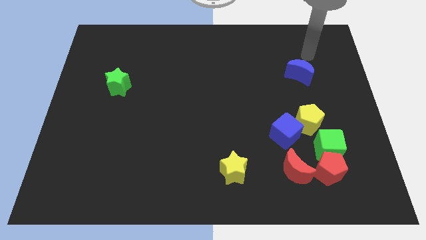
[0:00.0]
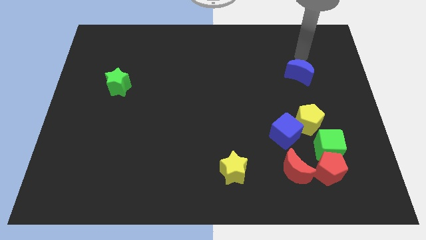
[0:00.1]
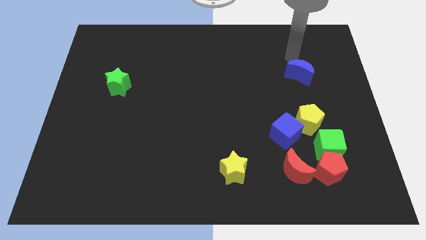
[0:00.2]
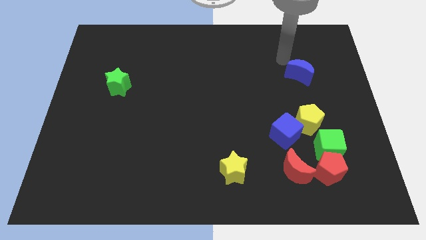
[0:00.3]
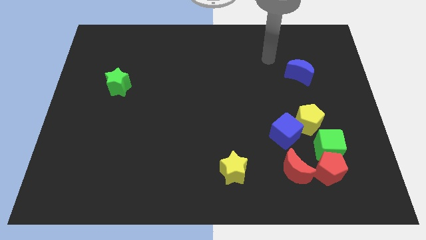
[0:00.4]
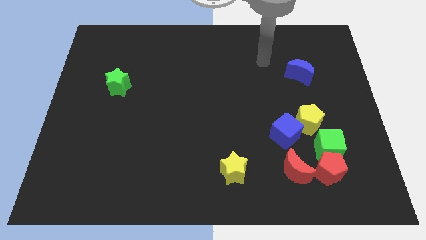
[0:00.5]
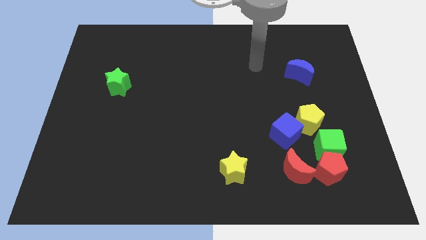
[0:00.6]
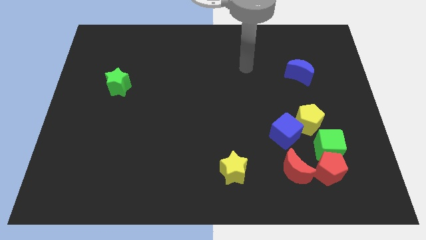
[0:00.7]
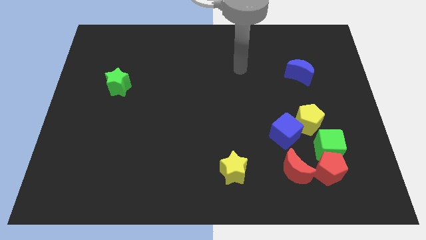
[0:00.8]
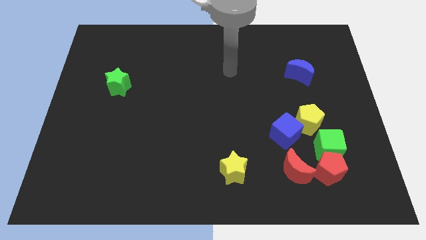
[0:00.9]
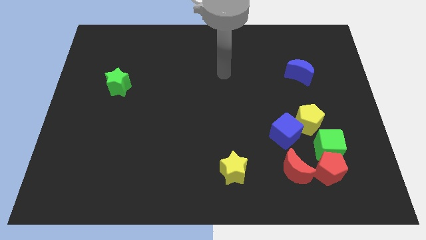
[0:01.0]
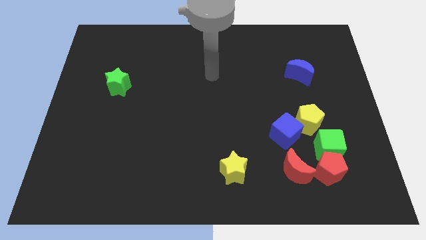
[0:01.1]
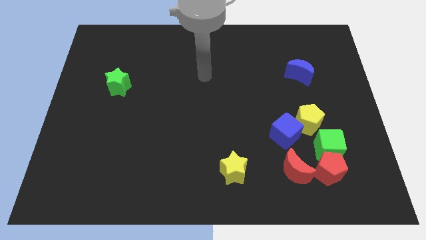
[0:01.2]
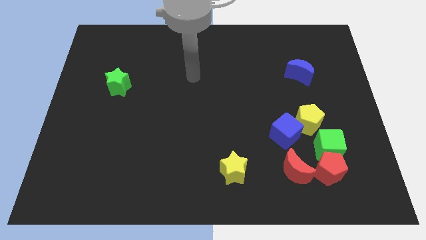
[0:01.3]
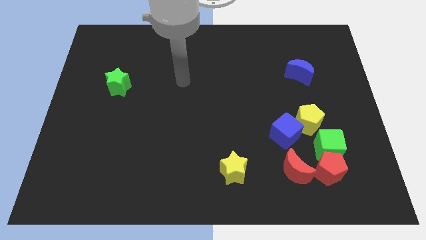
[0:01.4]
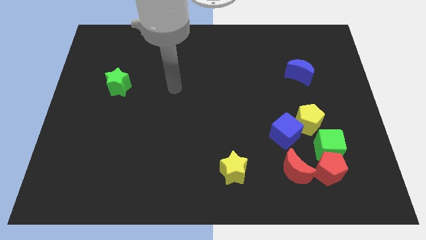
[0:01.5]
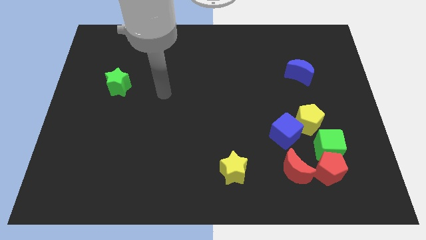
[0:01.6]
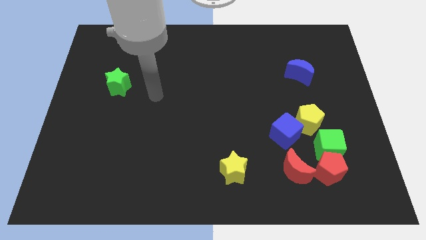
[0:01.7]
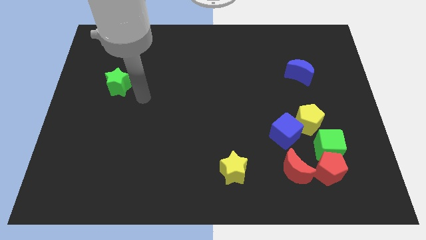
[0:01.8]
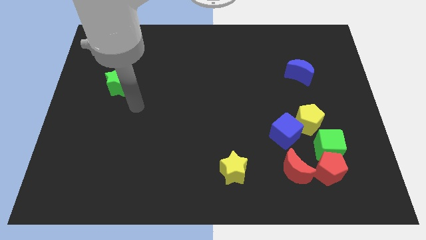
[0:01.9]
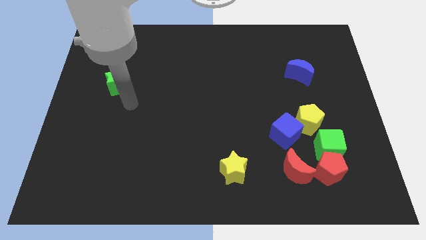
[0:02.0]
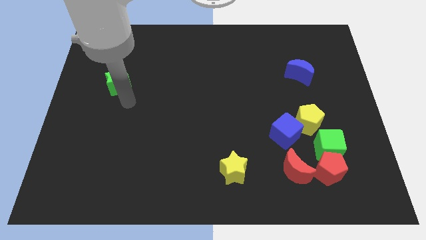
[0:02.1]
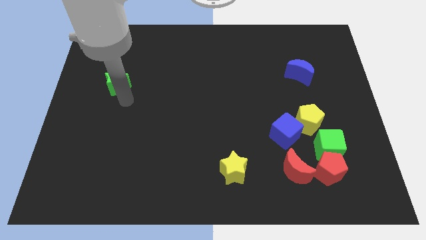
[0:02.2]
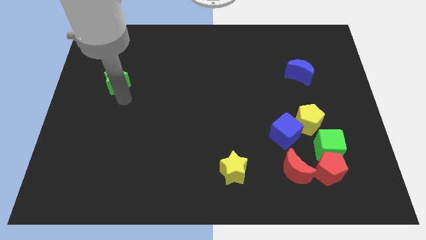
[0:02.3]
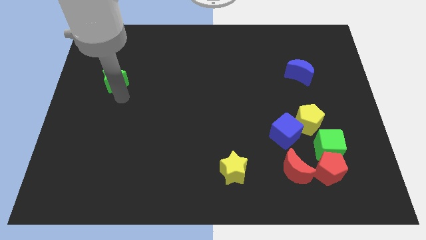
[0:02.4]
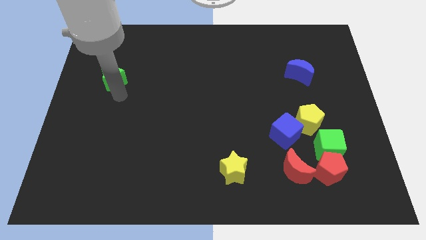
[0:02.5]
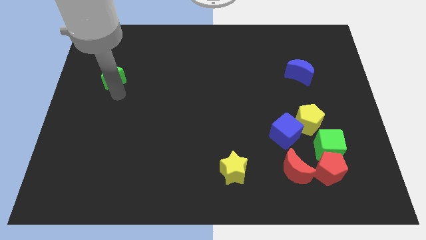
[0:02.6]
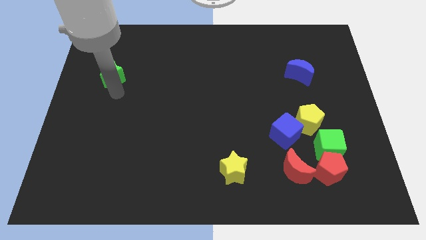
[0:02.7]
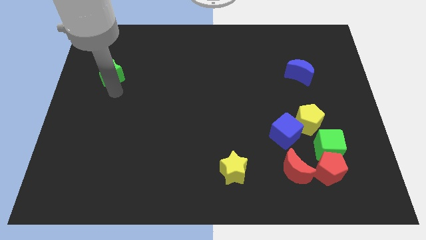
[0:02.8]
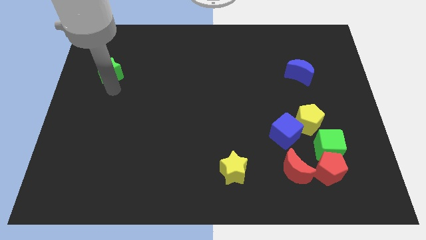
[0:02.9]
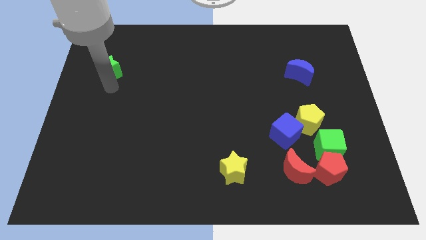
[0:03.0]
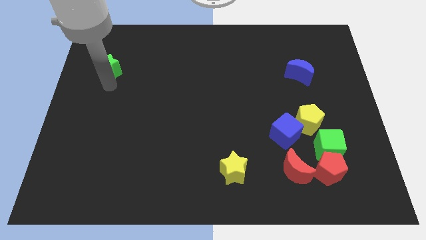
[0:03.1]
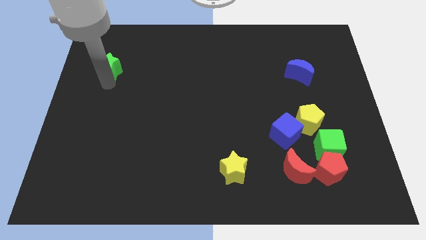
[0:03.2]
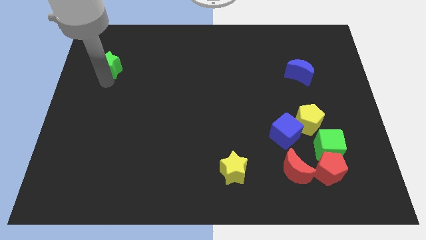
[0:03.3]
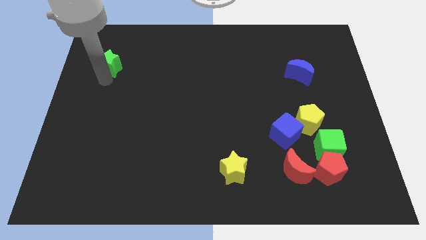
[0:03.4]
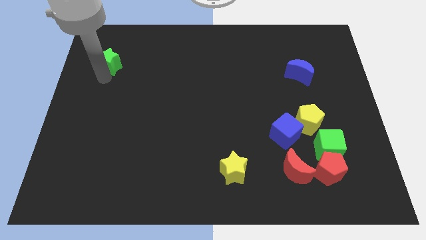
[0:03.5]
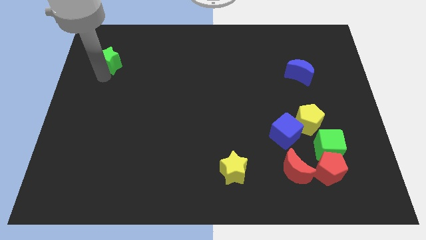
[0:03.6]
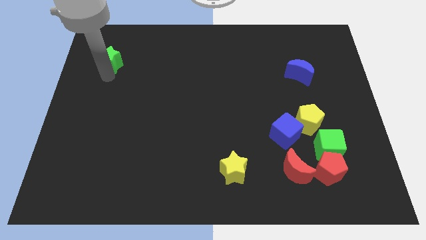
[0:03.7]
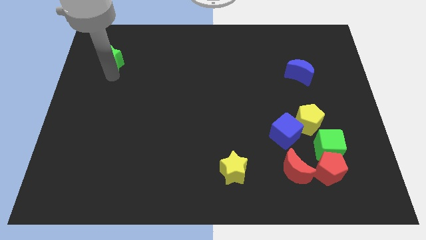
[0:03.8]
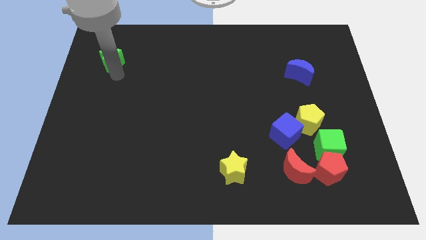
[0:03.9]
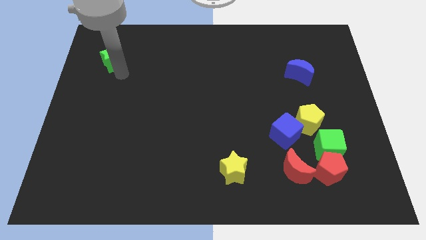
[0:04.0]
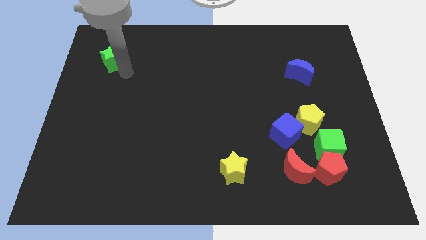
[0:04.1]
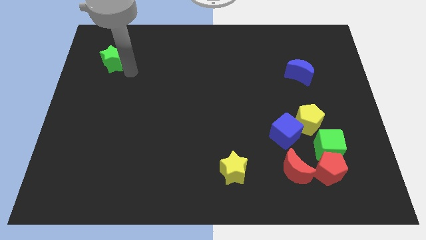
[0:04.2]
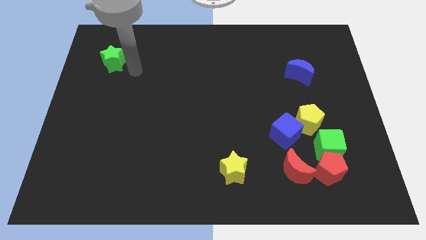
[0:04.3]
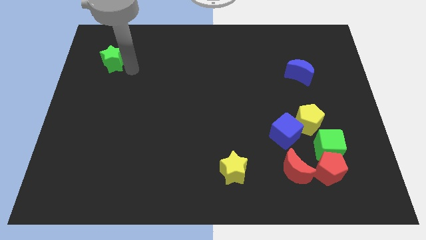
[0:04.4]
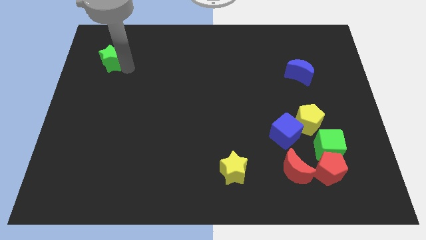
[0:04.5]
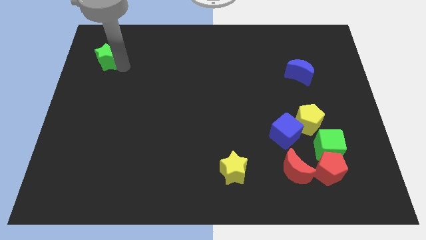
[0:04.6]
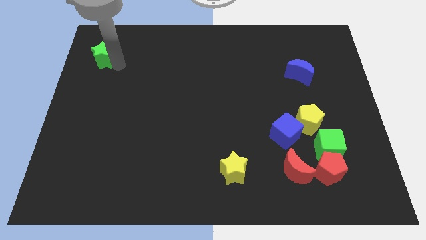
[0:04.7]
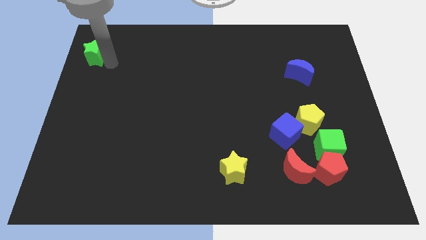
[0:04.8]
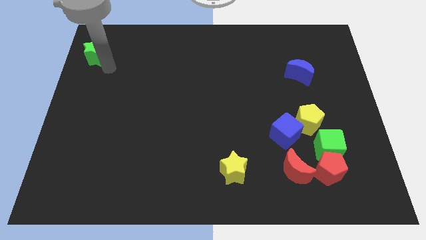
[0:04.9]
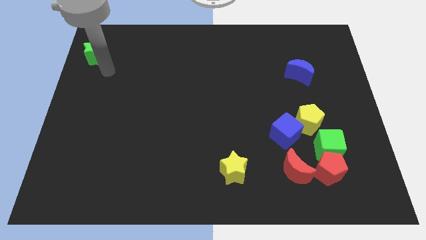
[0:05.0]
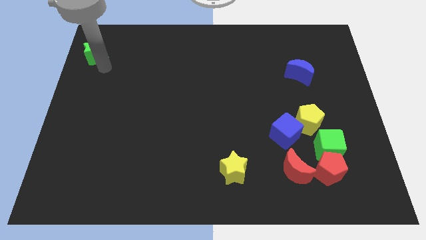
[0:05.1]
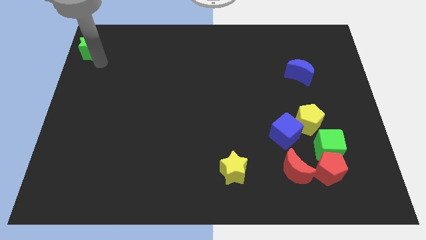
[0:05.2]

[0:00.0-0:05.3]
put the green star to the top left corner

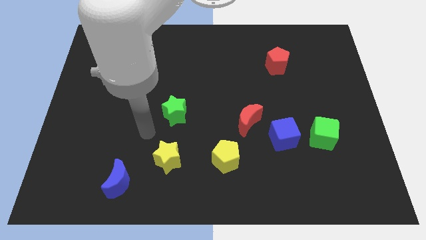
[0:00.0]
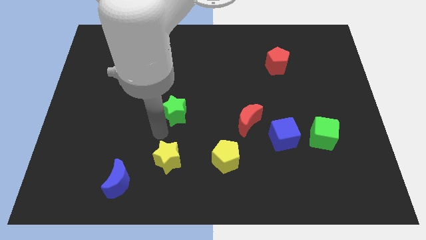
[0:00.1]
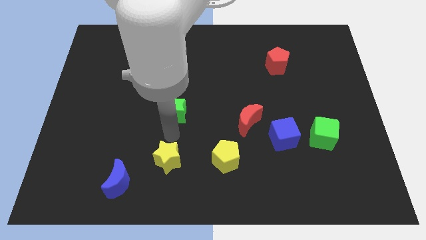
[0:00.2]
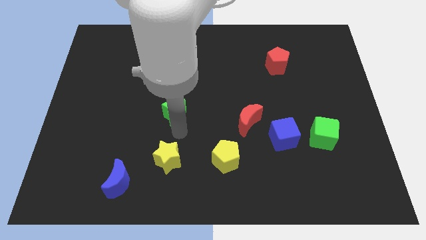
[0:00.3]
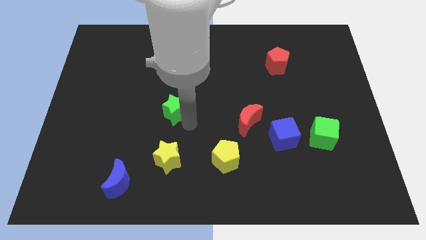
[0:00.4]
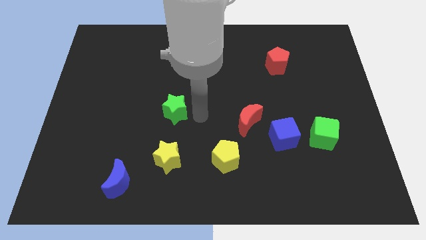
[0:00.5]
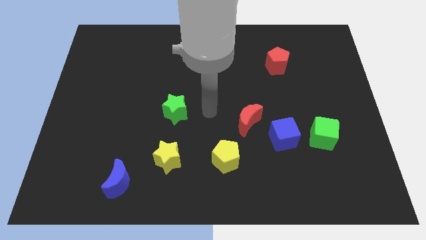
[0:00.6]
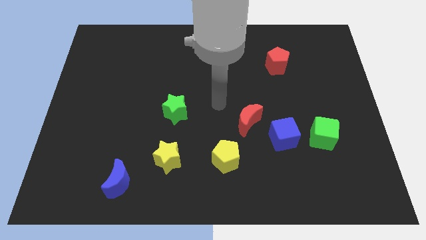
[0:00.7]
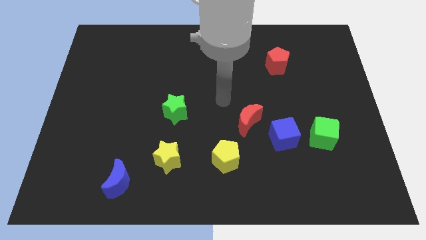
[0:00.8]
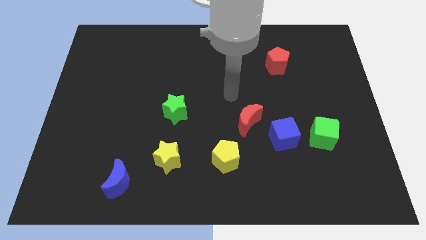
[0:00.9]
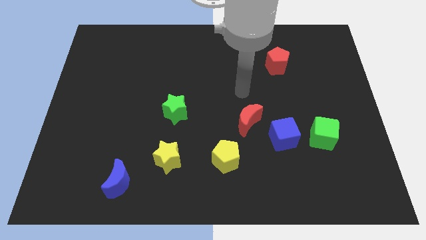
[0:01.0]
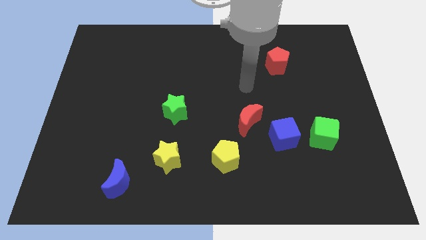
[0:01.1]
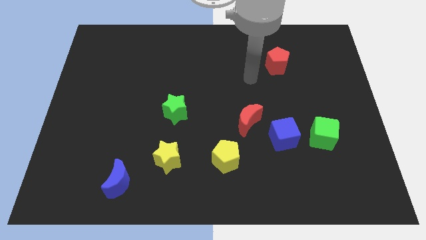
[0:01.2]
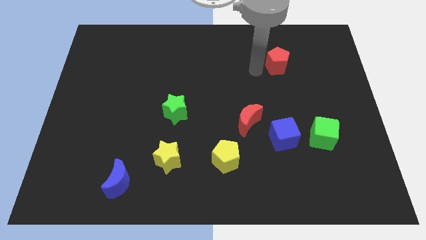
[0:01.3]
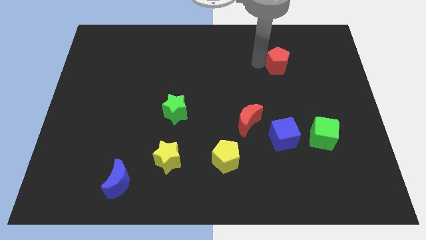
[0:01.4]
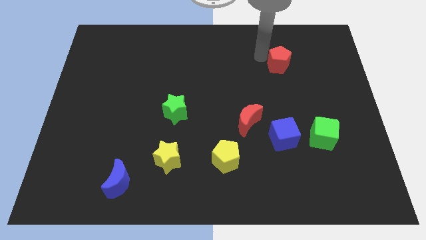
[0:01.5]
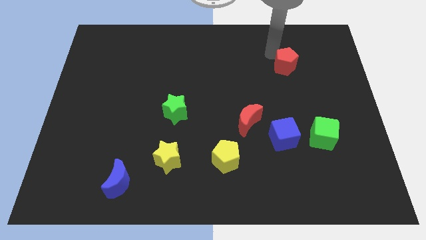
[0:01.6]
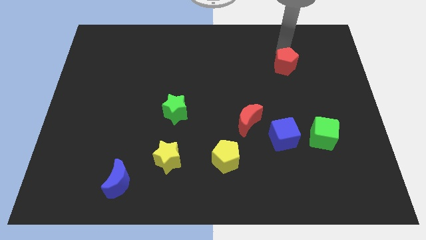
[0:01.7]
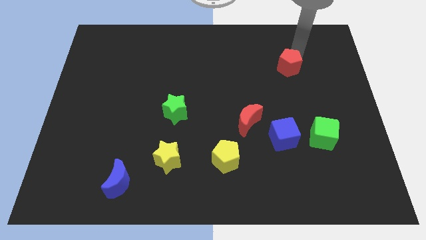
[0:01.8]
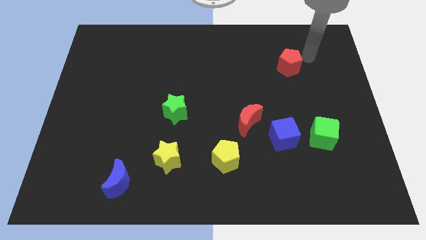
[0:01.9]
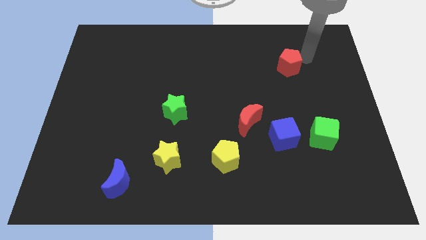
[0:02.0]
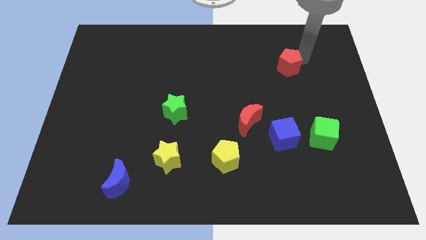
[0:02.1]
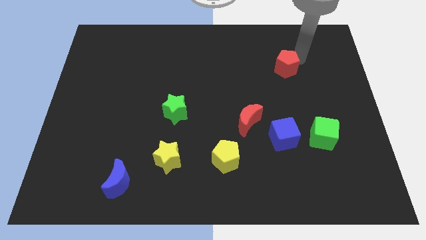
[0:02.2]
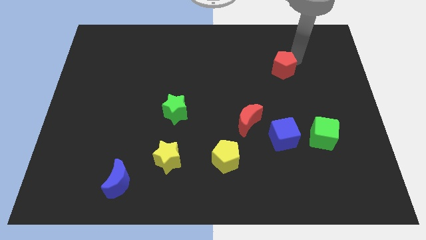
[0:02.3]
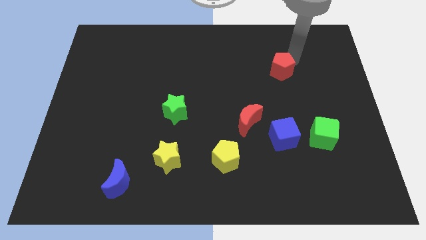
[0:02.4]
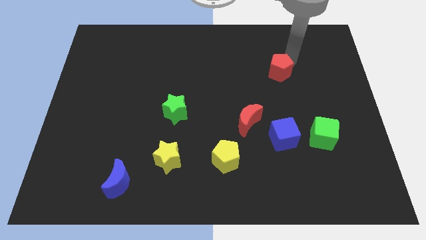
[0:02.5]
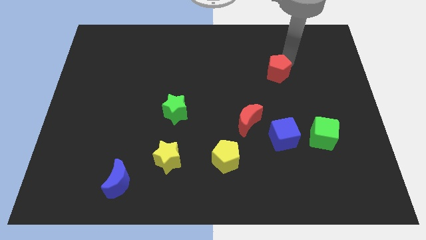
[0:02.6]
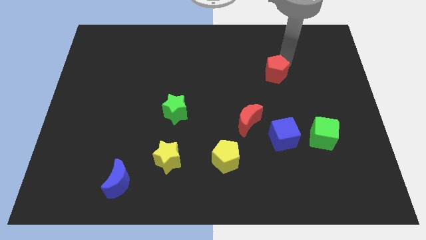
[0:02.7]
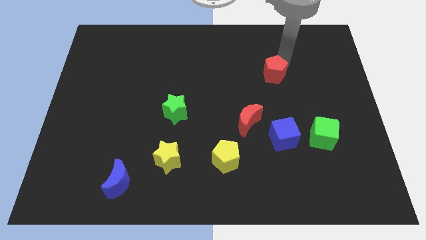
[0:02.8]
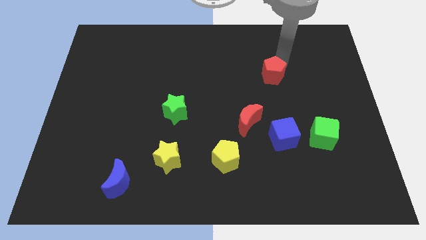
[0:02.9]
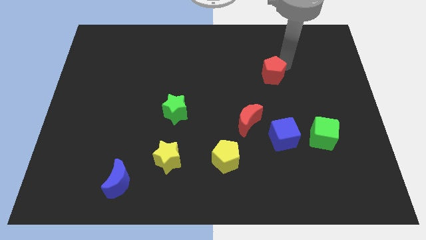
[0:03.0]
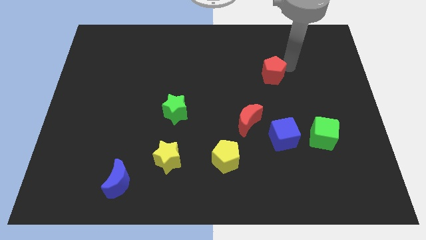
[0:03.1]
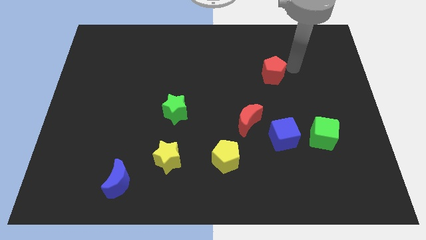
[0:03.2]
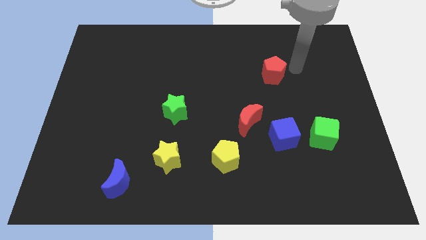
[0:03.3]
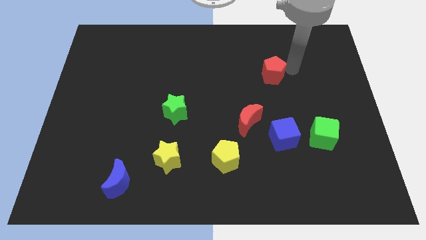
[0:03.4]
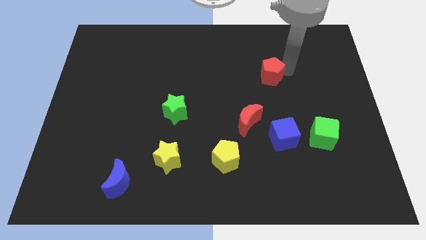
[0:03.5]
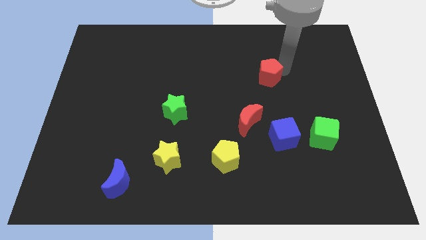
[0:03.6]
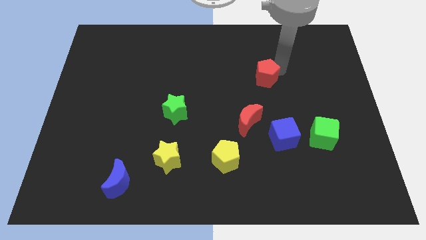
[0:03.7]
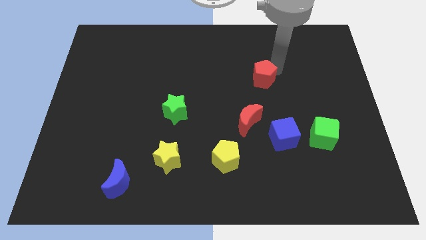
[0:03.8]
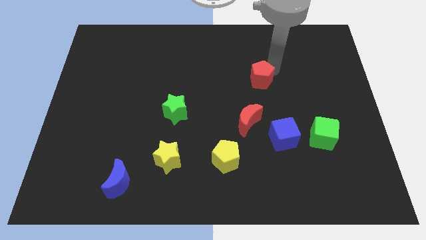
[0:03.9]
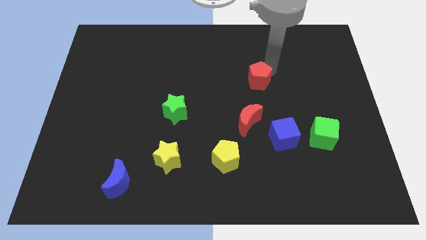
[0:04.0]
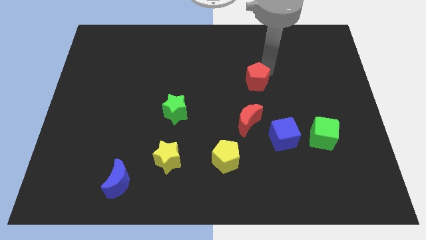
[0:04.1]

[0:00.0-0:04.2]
slide the red pentagon to the center of the board
